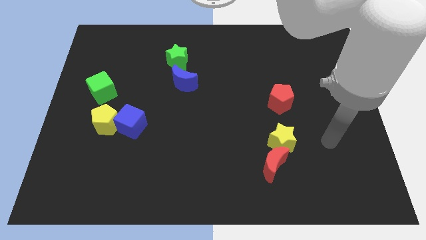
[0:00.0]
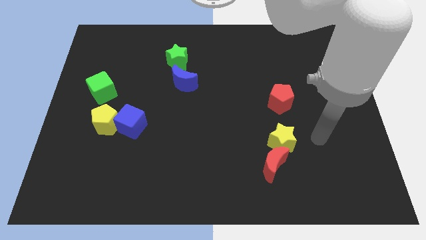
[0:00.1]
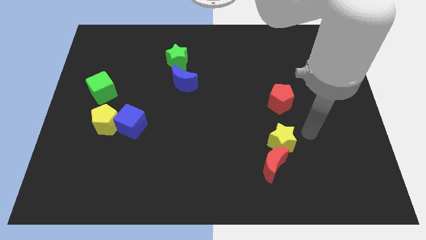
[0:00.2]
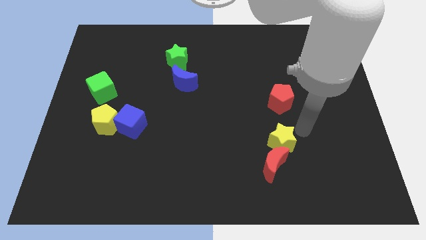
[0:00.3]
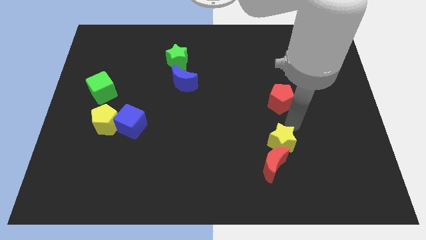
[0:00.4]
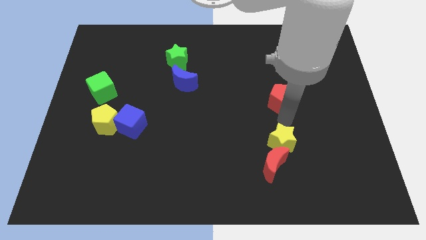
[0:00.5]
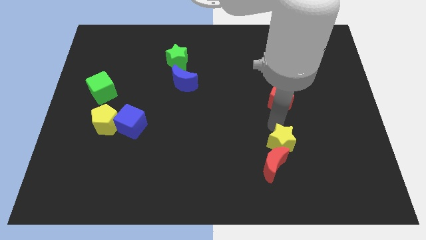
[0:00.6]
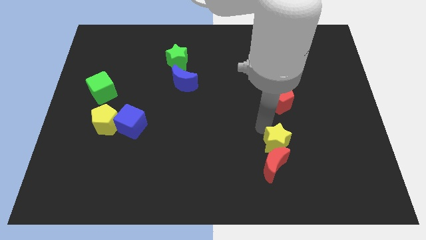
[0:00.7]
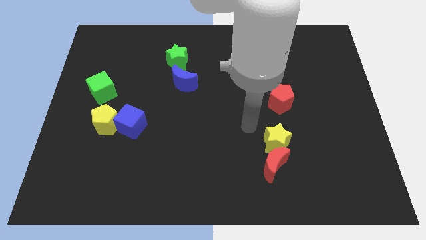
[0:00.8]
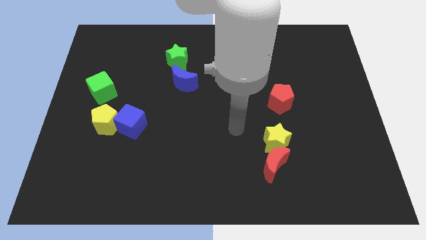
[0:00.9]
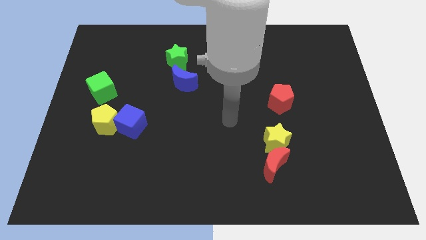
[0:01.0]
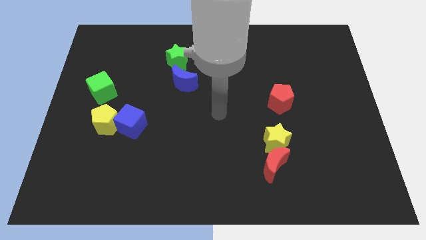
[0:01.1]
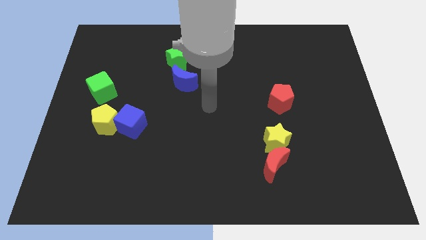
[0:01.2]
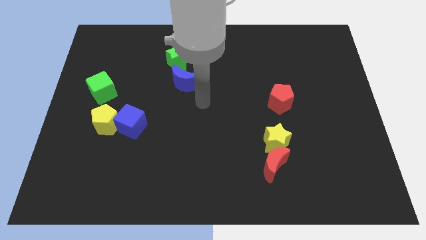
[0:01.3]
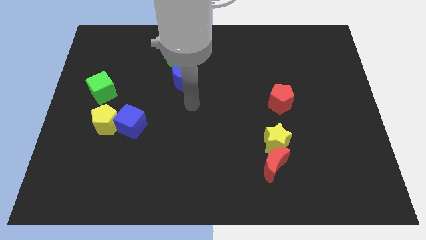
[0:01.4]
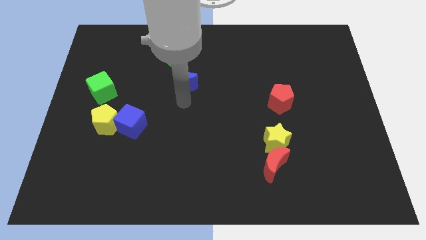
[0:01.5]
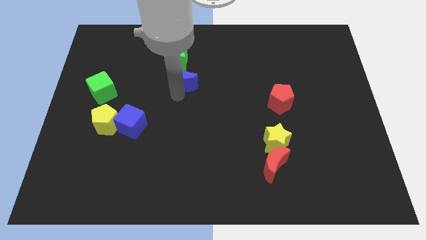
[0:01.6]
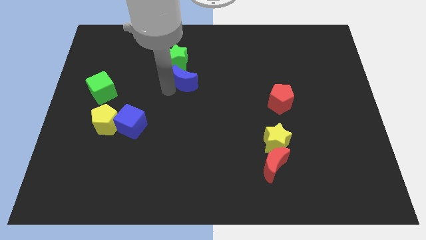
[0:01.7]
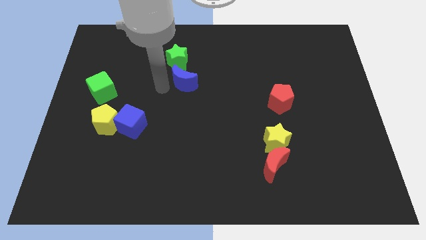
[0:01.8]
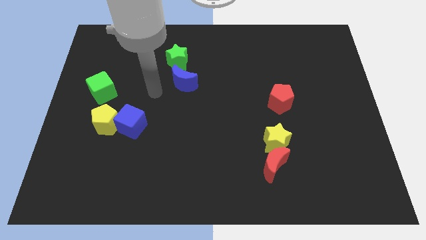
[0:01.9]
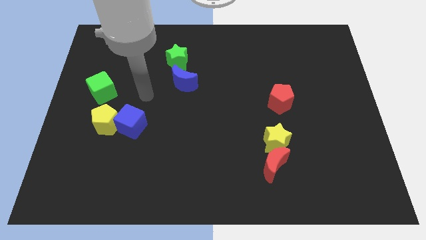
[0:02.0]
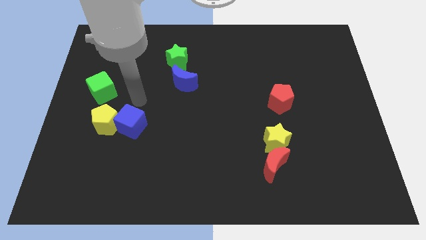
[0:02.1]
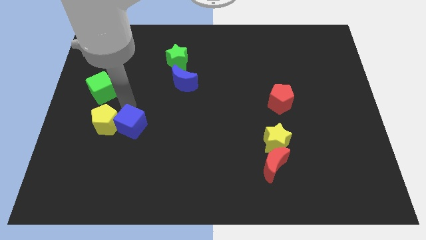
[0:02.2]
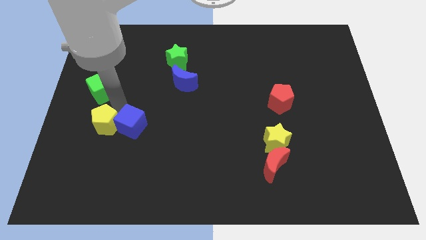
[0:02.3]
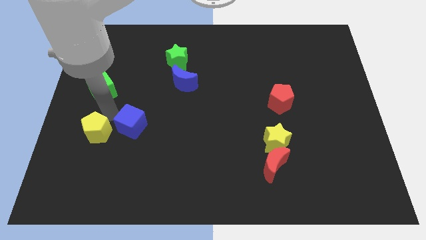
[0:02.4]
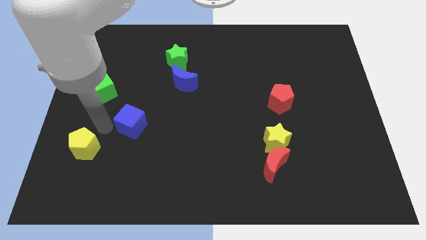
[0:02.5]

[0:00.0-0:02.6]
move the blue cube away from the yellow pentagon

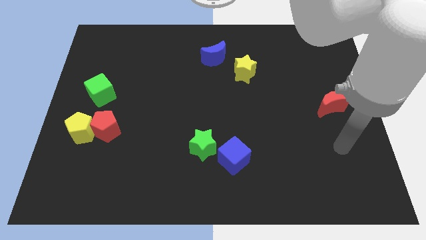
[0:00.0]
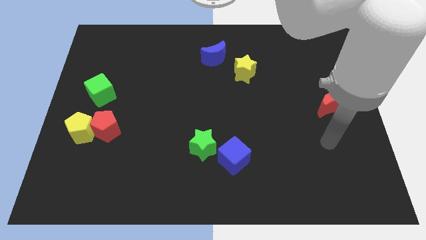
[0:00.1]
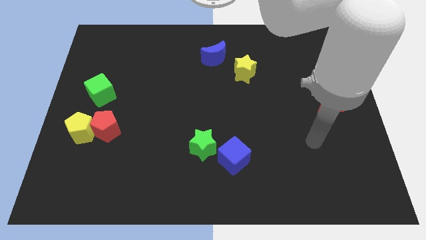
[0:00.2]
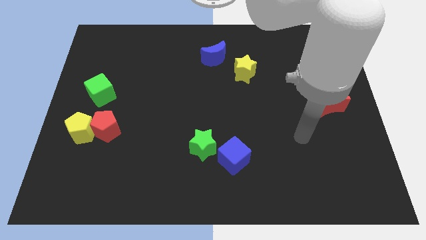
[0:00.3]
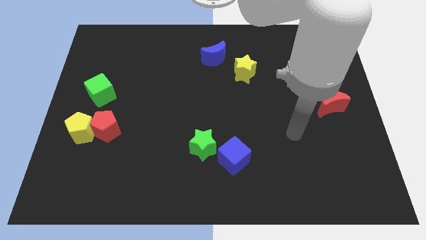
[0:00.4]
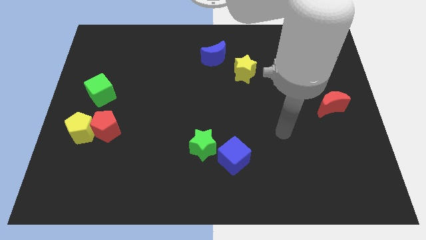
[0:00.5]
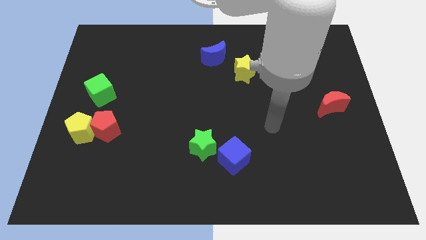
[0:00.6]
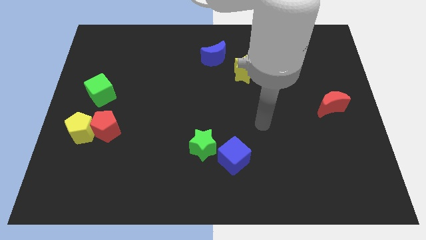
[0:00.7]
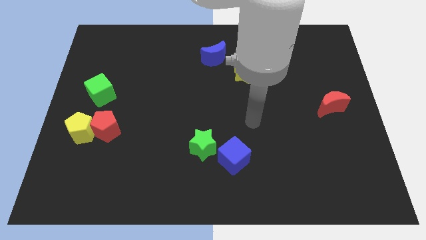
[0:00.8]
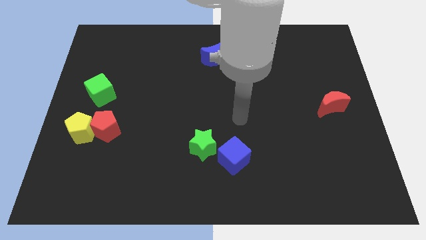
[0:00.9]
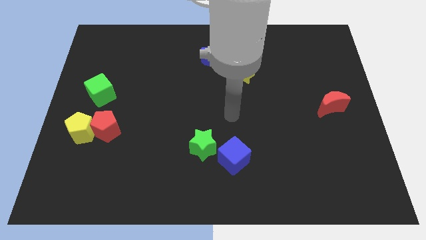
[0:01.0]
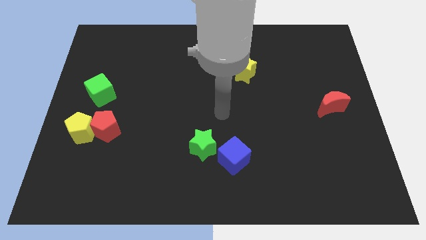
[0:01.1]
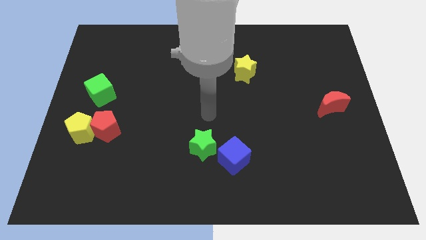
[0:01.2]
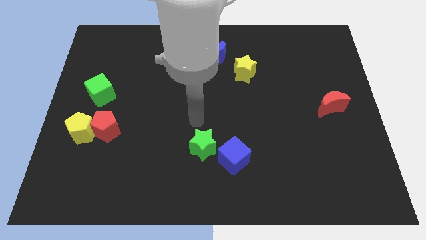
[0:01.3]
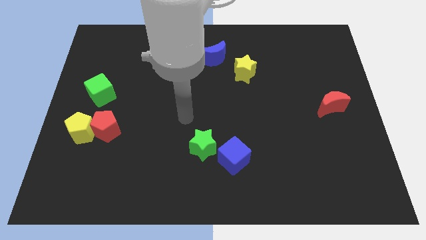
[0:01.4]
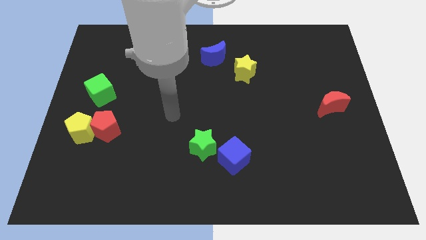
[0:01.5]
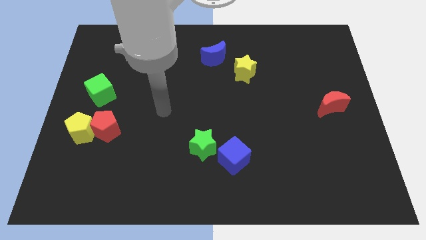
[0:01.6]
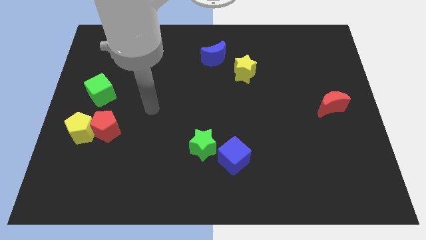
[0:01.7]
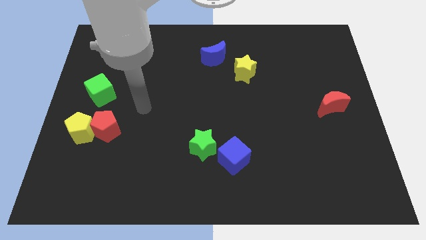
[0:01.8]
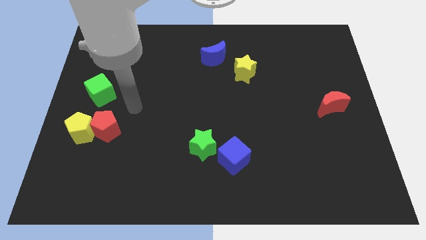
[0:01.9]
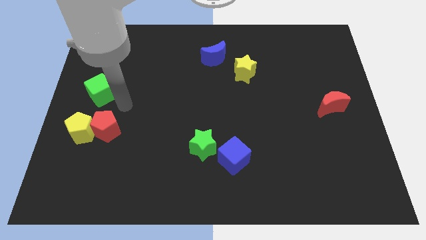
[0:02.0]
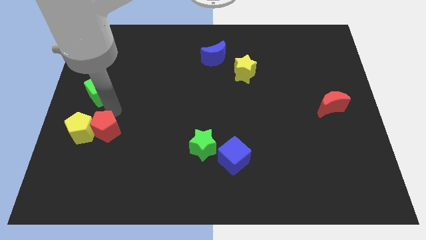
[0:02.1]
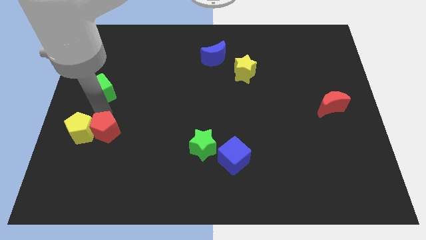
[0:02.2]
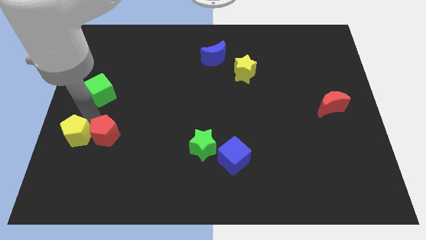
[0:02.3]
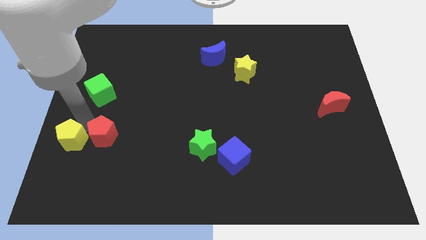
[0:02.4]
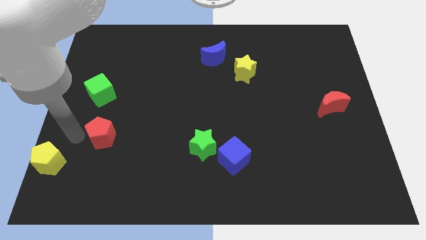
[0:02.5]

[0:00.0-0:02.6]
pull the red pentagon apart from the yellow pentagon

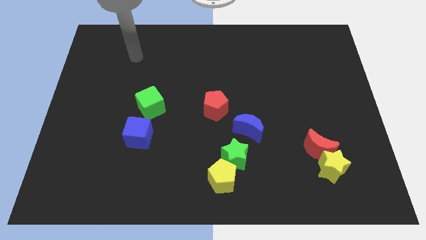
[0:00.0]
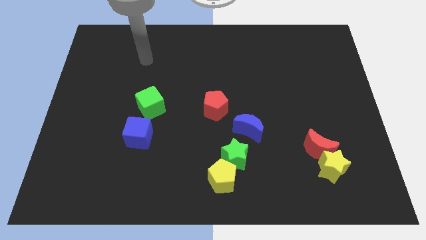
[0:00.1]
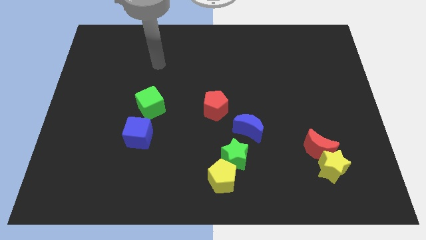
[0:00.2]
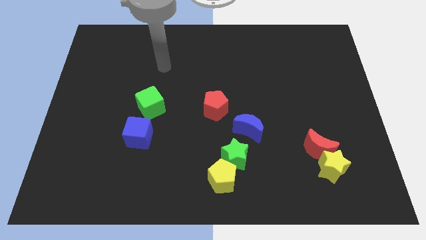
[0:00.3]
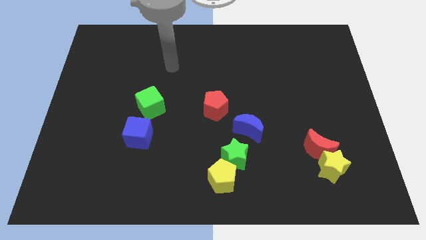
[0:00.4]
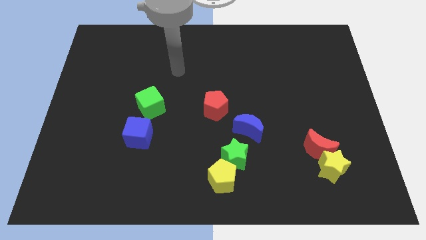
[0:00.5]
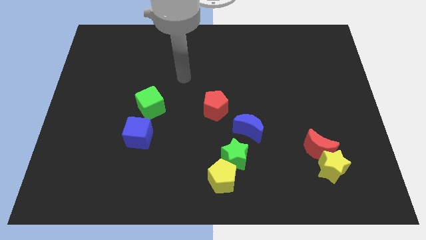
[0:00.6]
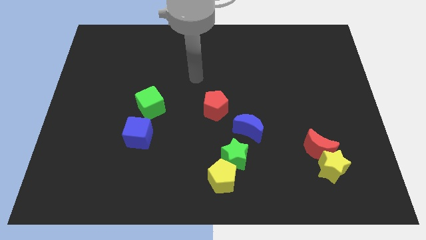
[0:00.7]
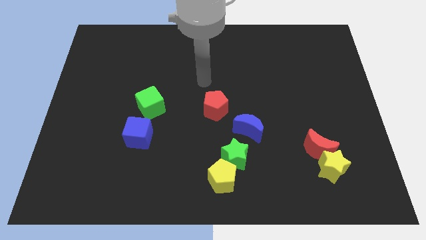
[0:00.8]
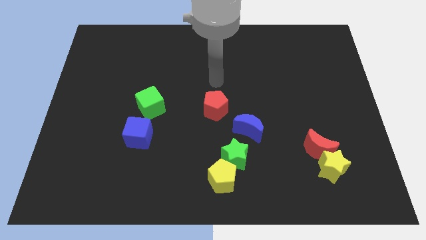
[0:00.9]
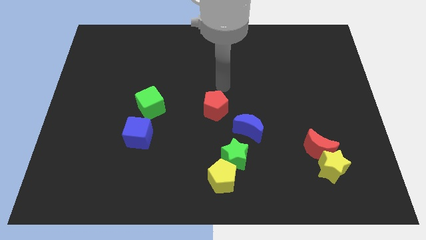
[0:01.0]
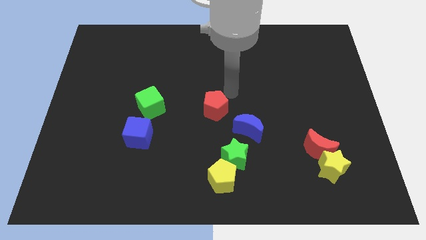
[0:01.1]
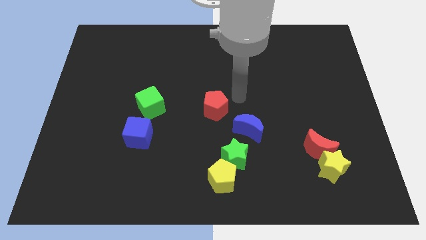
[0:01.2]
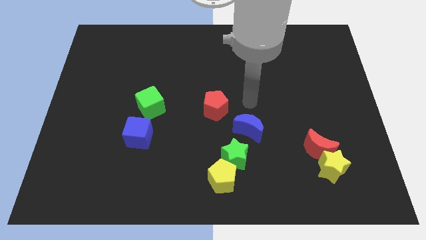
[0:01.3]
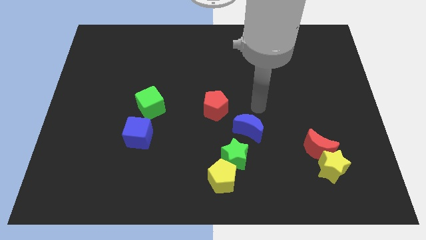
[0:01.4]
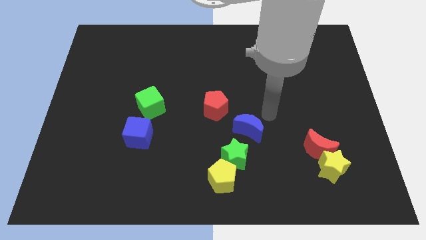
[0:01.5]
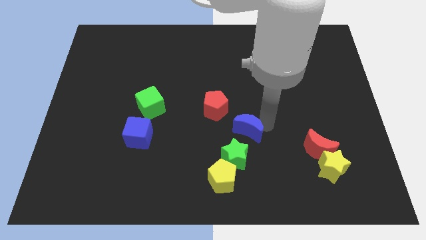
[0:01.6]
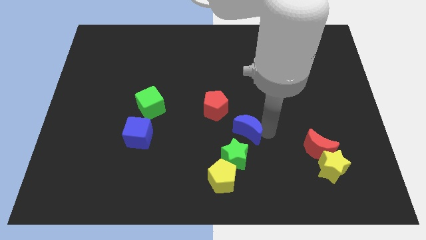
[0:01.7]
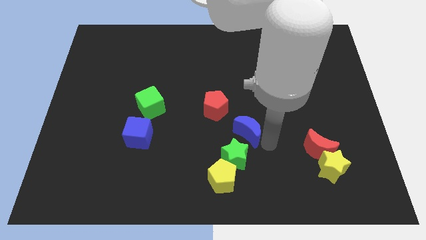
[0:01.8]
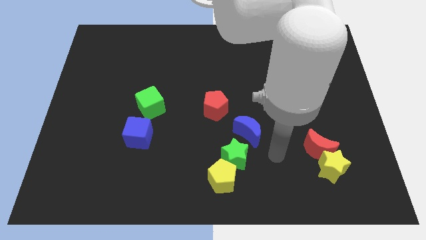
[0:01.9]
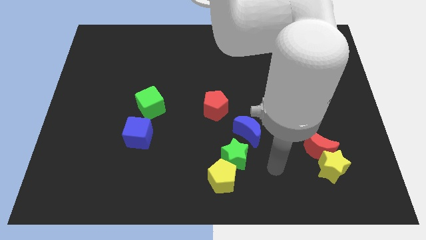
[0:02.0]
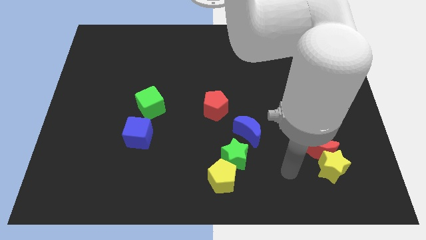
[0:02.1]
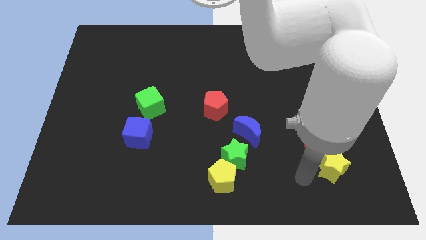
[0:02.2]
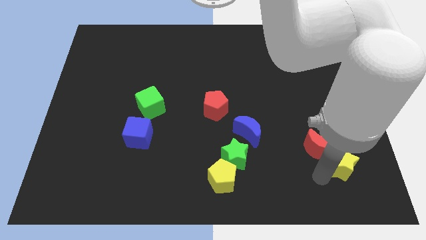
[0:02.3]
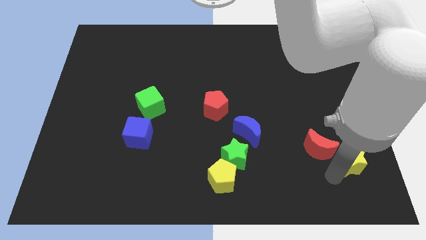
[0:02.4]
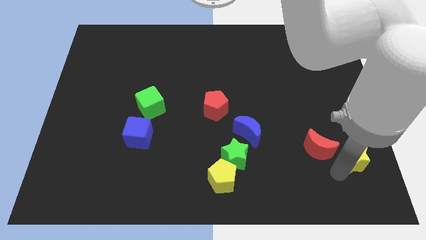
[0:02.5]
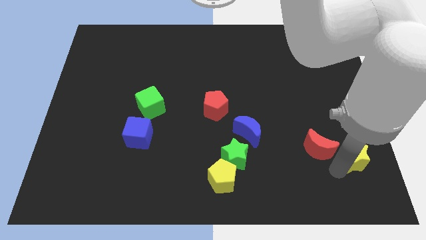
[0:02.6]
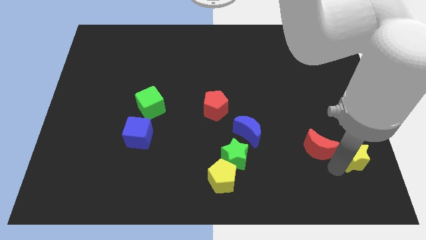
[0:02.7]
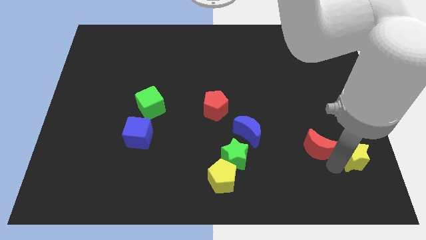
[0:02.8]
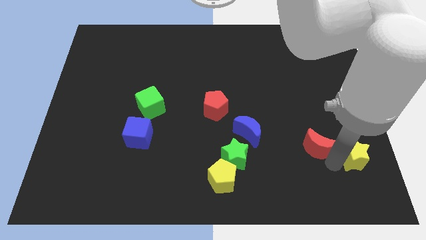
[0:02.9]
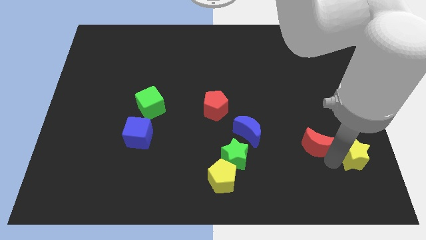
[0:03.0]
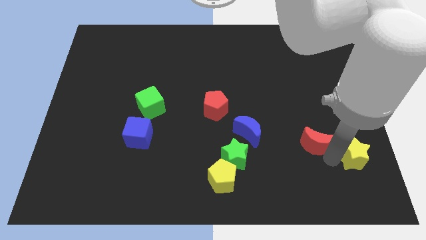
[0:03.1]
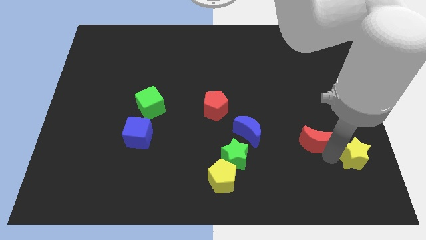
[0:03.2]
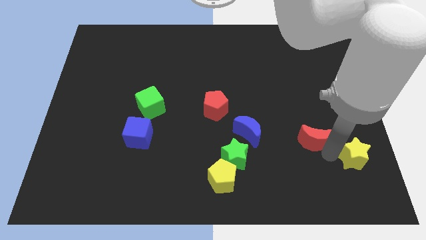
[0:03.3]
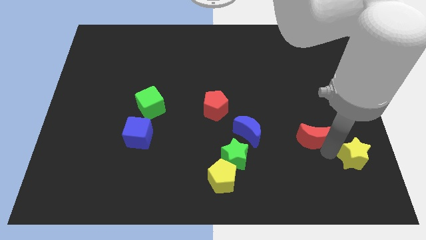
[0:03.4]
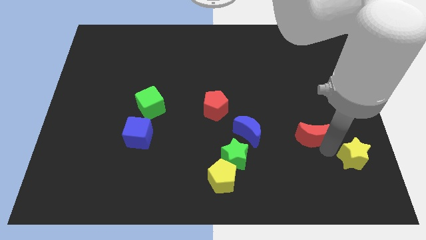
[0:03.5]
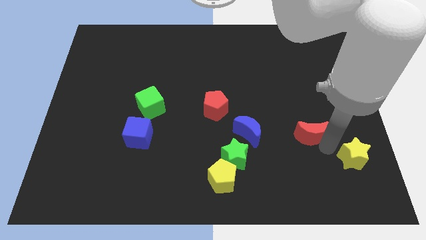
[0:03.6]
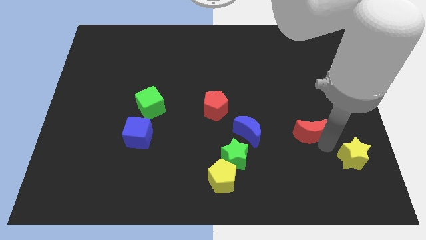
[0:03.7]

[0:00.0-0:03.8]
move the red moon away from the yellow star

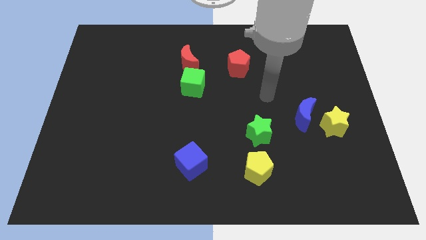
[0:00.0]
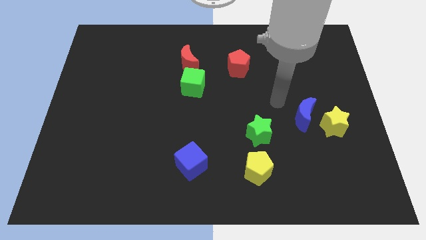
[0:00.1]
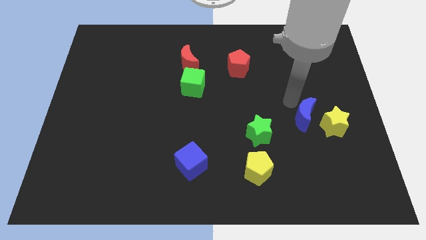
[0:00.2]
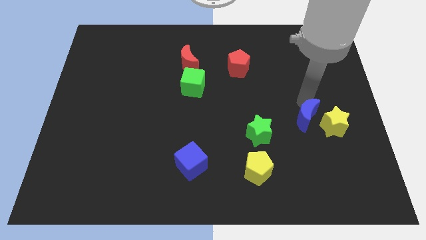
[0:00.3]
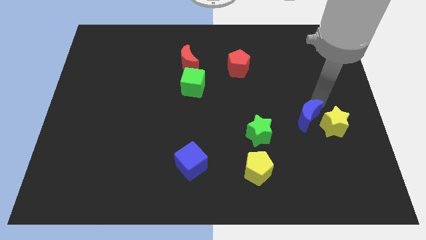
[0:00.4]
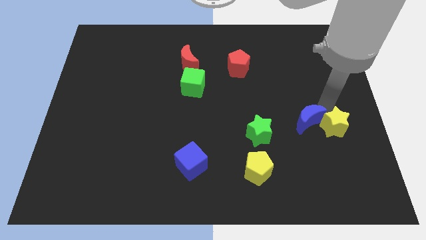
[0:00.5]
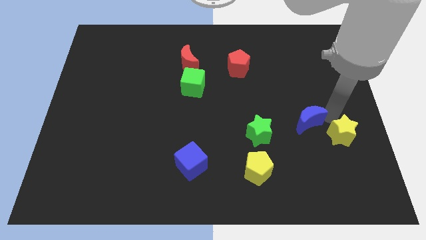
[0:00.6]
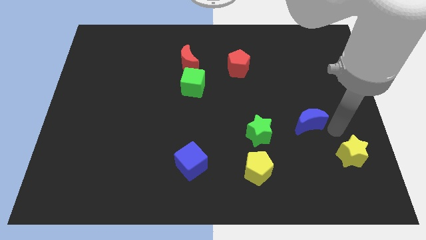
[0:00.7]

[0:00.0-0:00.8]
pull the blue moon apart from the yellow star
